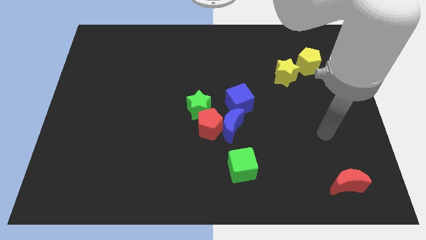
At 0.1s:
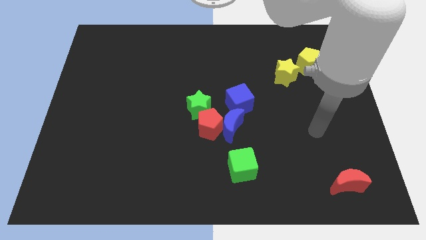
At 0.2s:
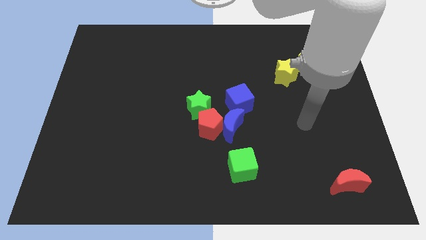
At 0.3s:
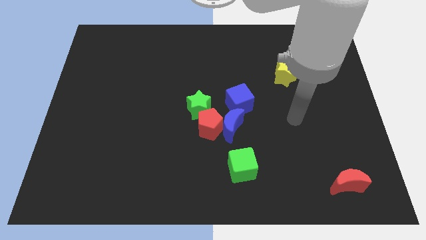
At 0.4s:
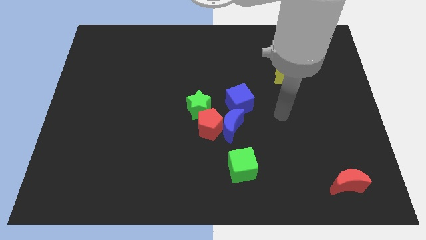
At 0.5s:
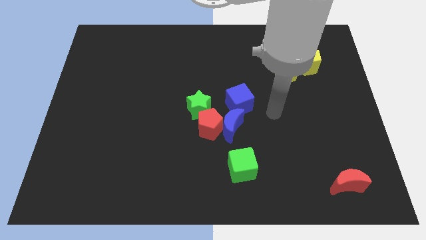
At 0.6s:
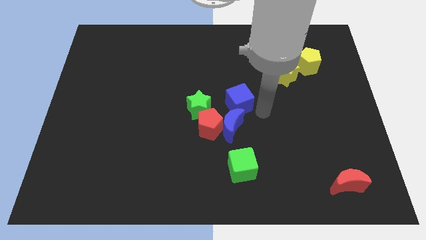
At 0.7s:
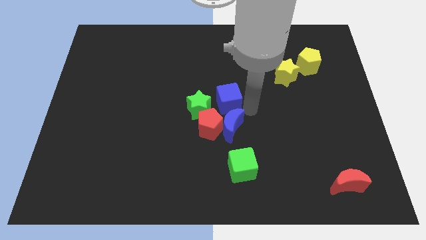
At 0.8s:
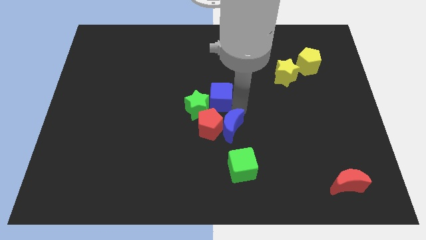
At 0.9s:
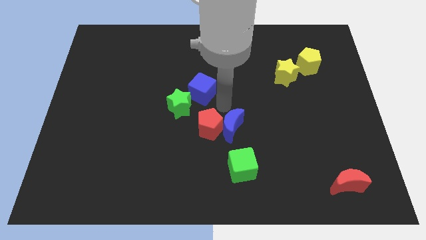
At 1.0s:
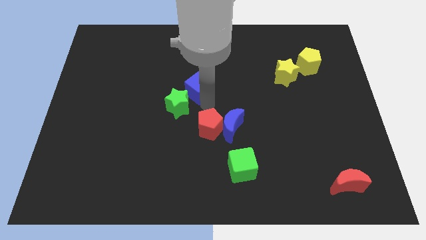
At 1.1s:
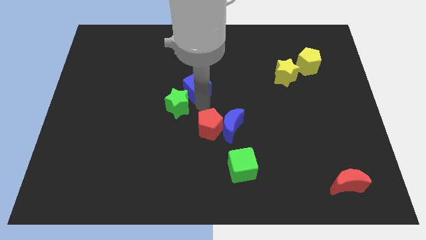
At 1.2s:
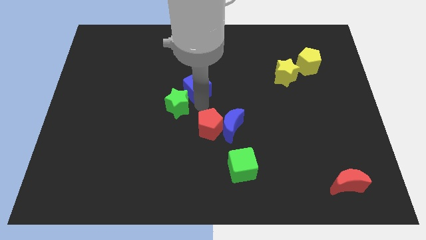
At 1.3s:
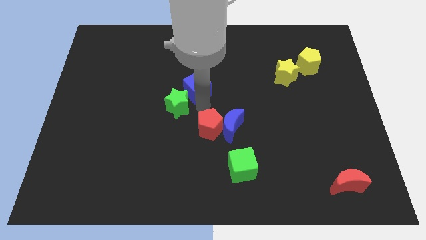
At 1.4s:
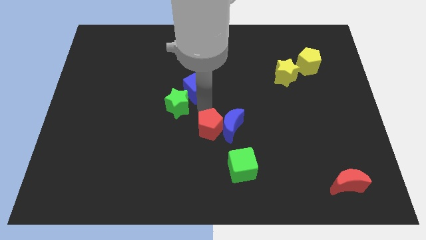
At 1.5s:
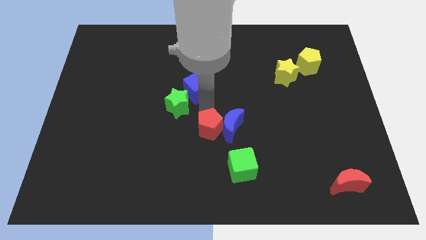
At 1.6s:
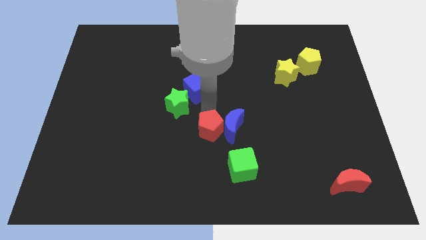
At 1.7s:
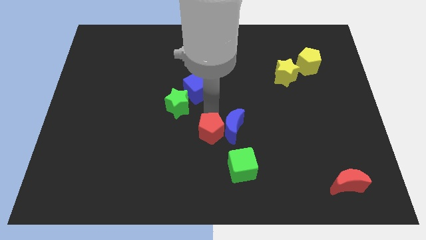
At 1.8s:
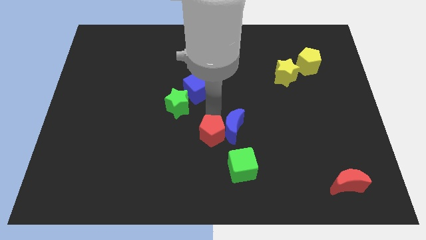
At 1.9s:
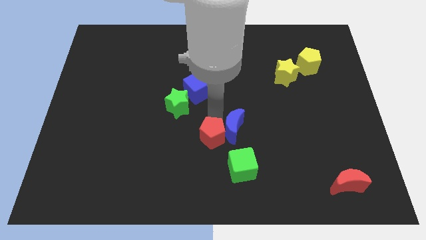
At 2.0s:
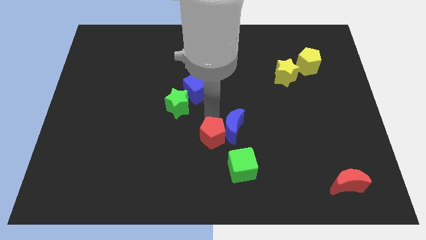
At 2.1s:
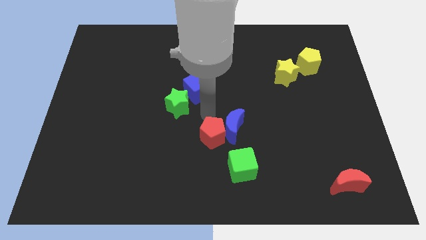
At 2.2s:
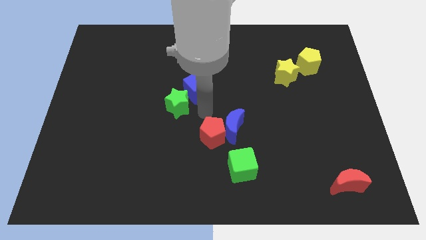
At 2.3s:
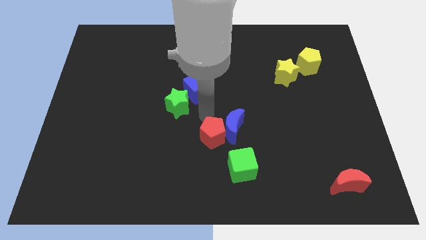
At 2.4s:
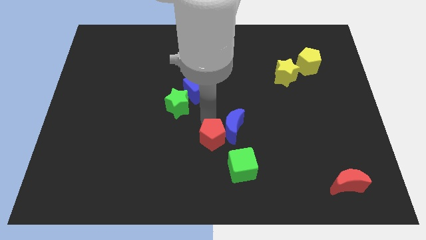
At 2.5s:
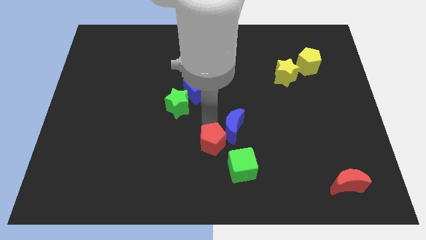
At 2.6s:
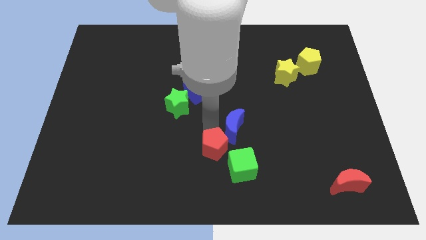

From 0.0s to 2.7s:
pull the red pentagon apart from the blue moon, green star, and blue cube

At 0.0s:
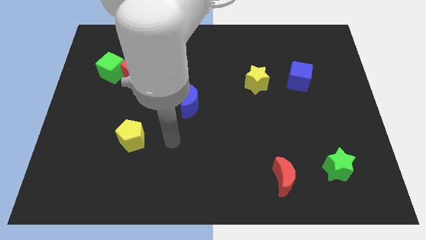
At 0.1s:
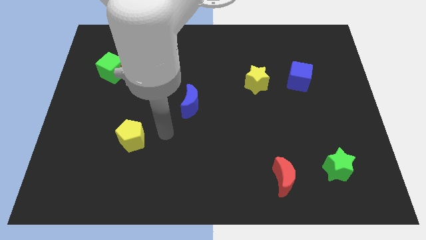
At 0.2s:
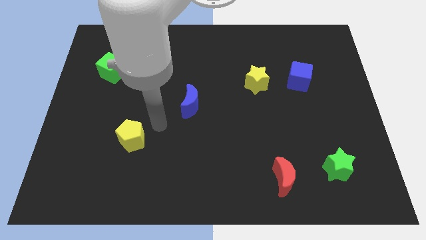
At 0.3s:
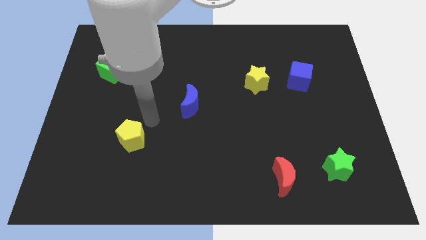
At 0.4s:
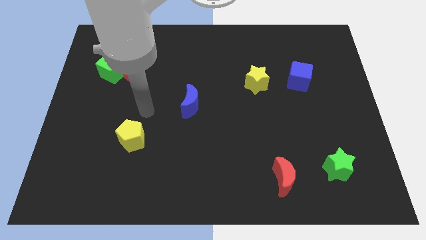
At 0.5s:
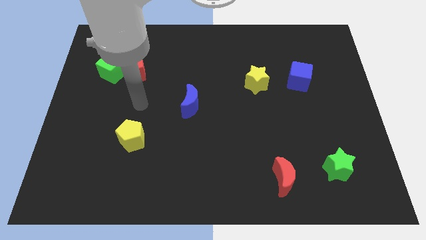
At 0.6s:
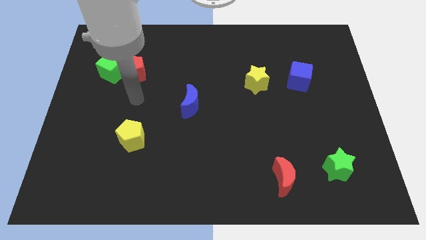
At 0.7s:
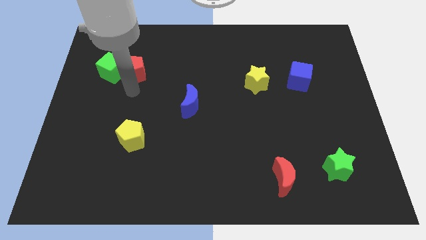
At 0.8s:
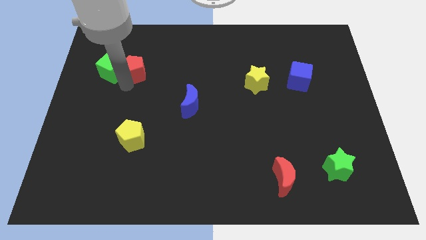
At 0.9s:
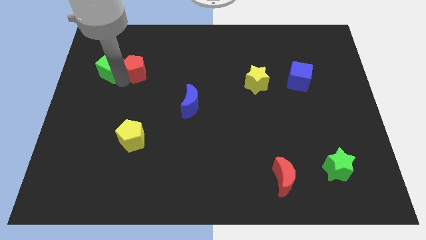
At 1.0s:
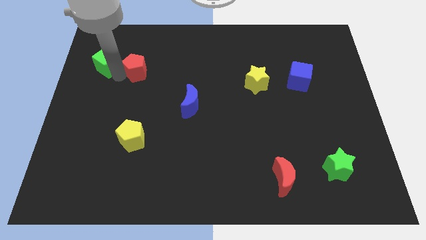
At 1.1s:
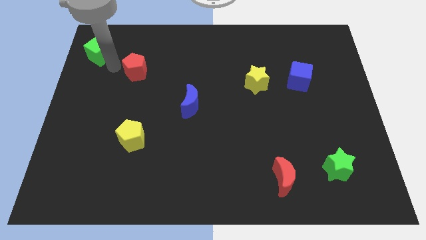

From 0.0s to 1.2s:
pull the red pentagon apart from the green cube

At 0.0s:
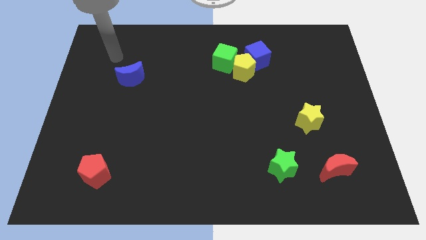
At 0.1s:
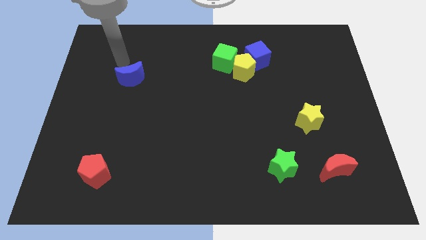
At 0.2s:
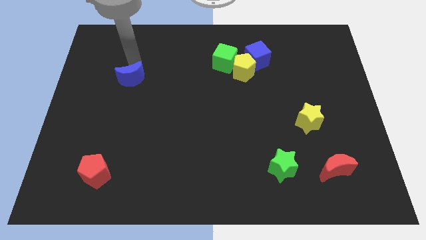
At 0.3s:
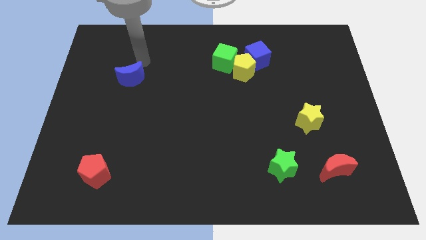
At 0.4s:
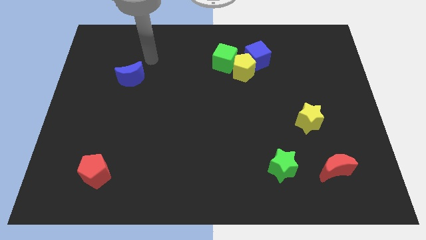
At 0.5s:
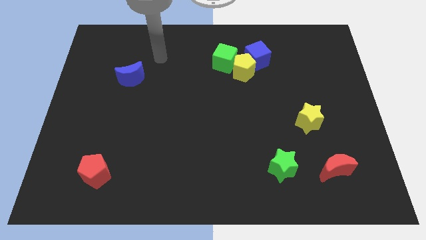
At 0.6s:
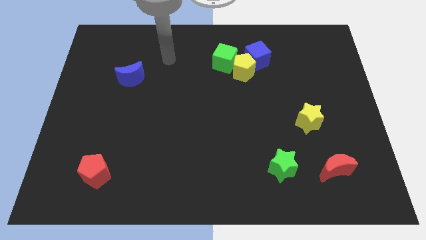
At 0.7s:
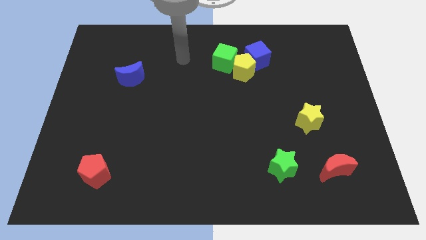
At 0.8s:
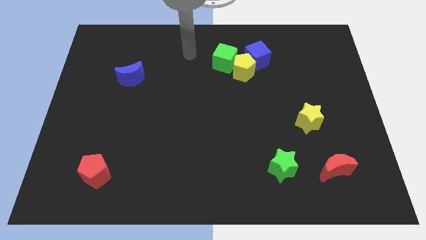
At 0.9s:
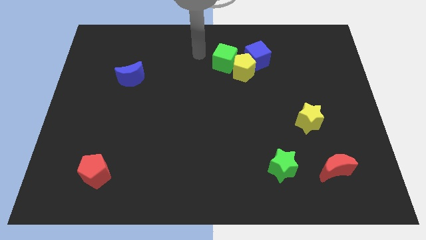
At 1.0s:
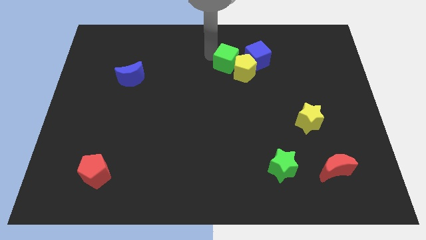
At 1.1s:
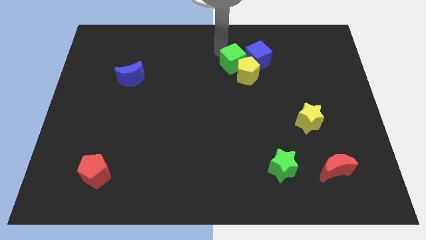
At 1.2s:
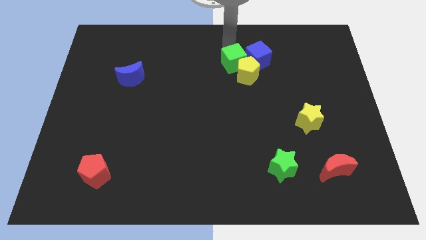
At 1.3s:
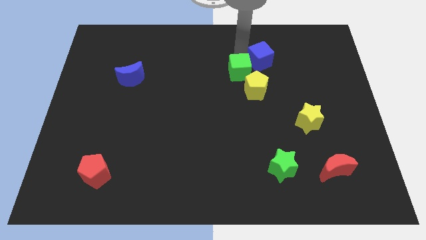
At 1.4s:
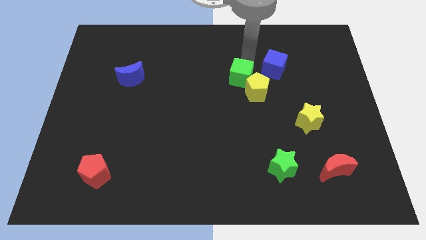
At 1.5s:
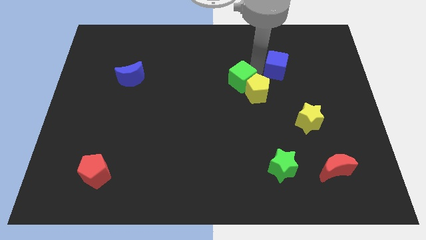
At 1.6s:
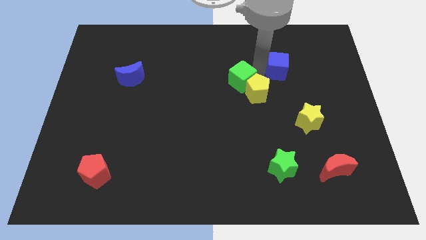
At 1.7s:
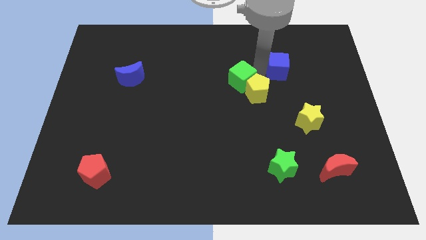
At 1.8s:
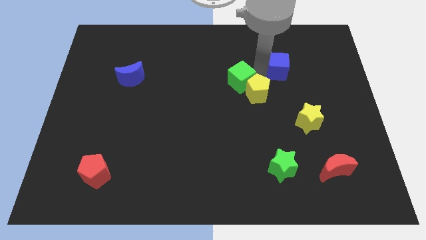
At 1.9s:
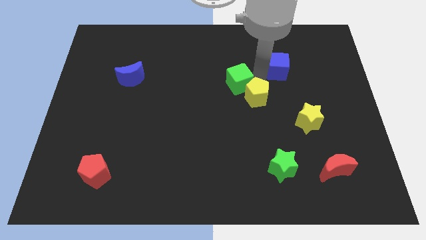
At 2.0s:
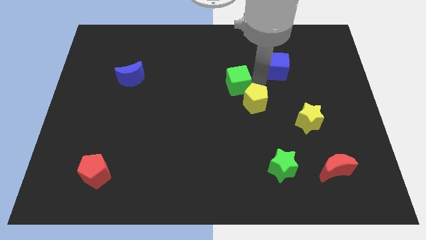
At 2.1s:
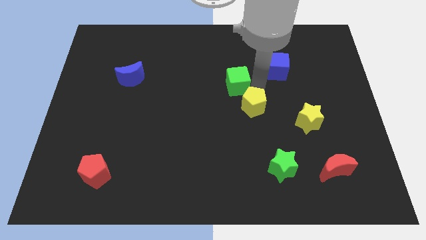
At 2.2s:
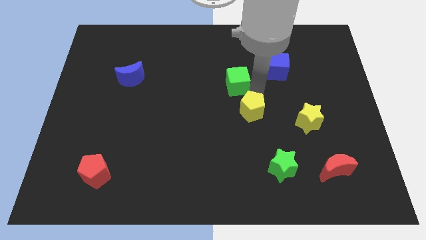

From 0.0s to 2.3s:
separate the yellow pentagon from the blue cube and green cube

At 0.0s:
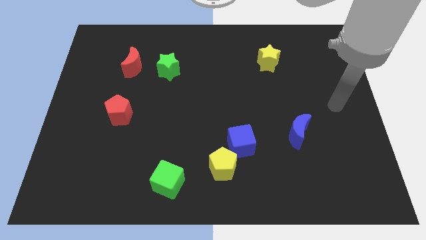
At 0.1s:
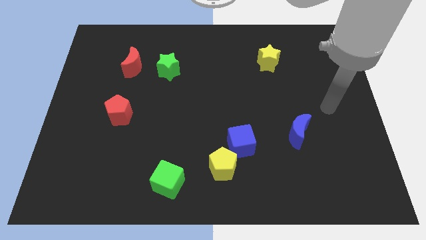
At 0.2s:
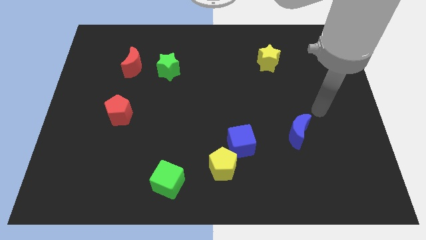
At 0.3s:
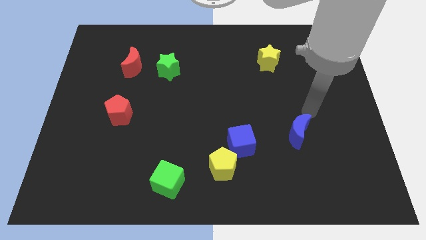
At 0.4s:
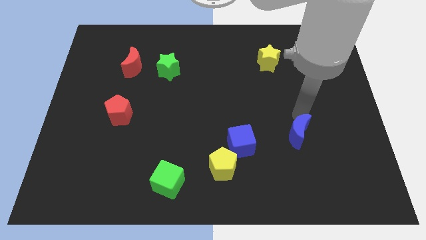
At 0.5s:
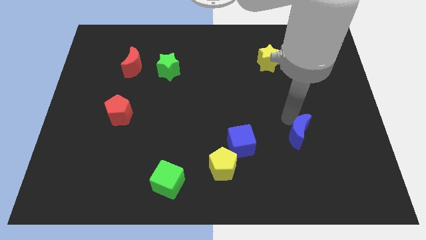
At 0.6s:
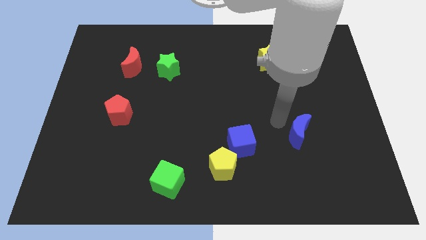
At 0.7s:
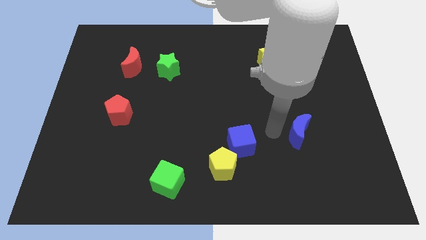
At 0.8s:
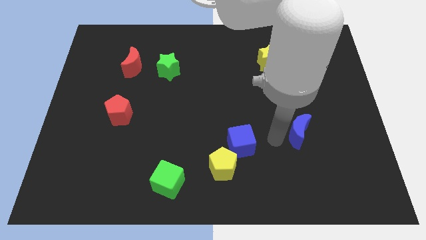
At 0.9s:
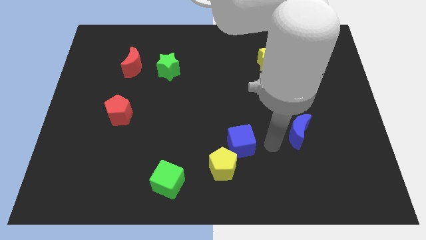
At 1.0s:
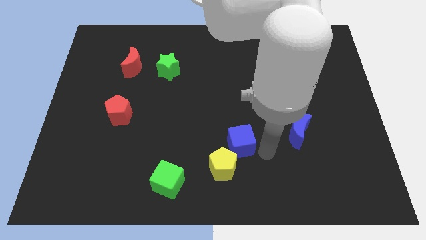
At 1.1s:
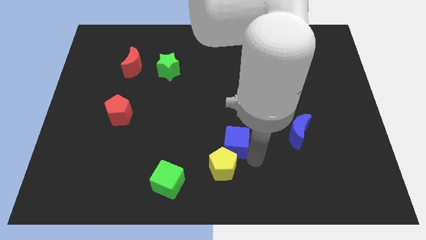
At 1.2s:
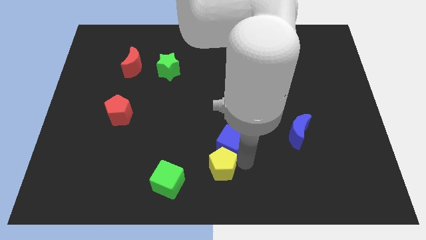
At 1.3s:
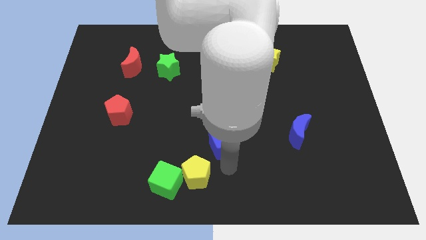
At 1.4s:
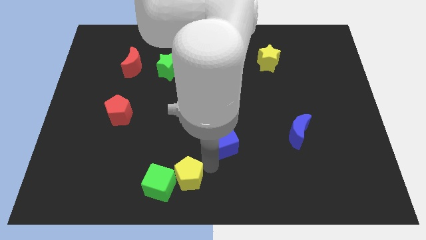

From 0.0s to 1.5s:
pull the blue cube apart from the yellow pentagon

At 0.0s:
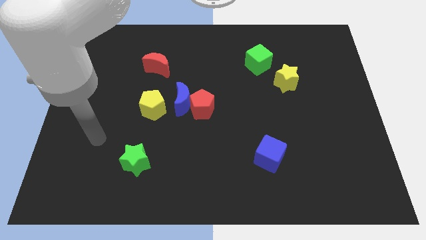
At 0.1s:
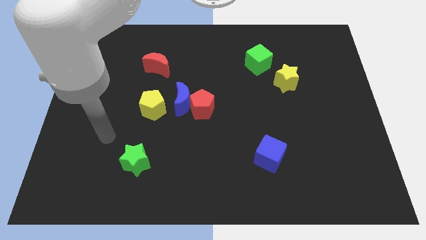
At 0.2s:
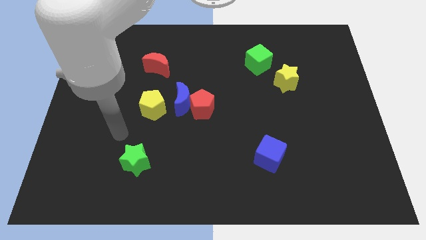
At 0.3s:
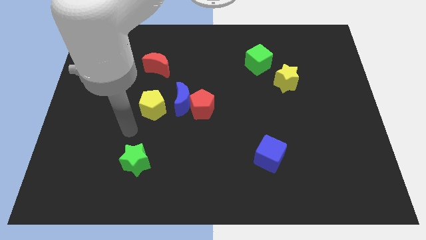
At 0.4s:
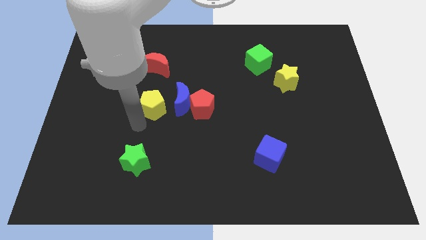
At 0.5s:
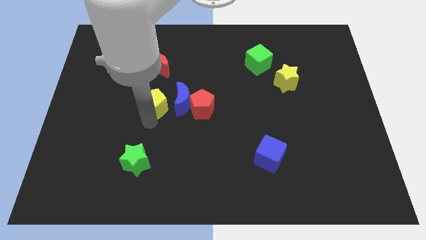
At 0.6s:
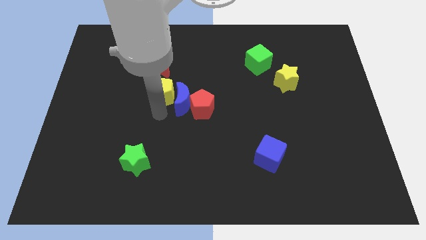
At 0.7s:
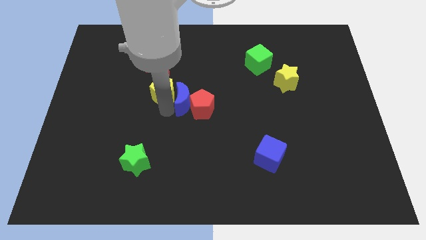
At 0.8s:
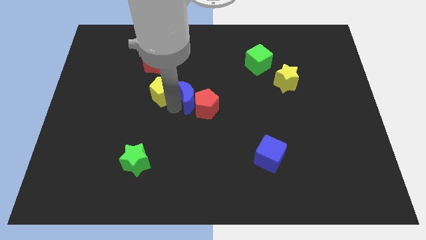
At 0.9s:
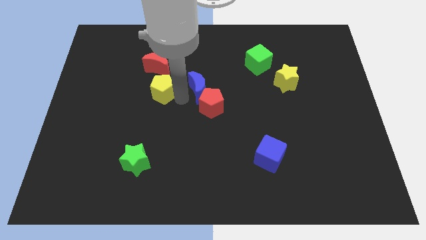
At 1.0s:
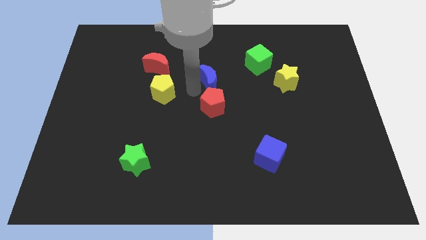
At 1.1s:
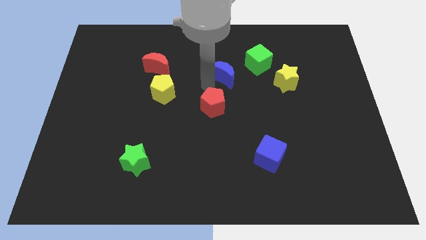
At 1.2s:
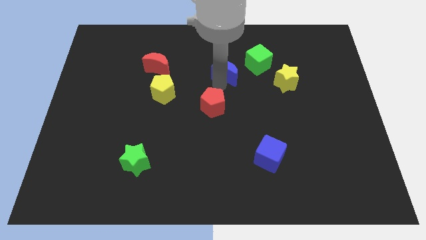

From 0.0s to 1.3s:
move the red pentagon away from the blue moon

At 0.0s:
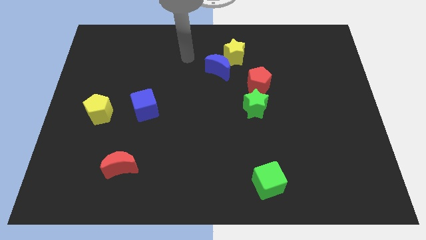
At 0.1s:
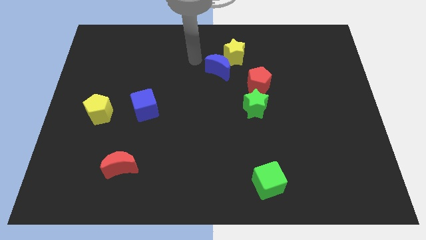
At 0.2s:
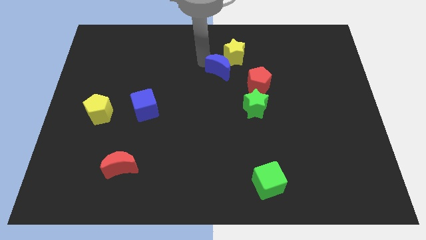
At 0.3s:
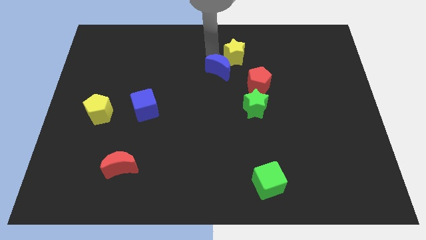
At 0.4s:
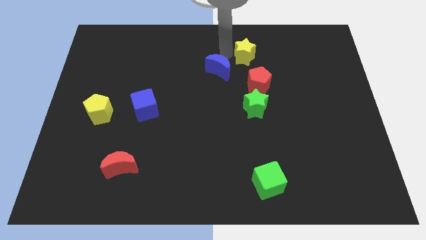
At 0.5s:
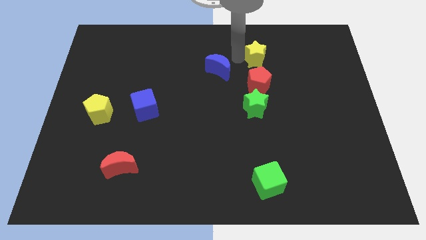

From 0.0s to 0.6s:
move the blue moon away from the yellow star
